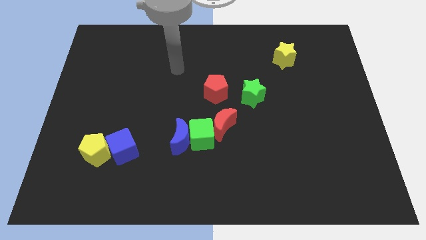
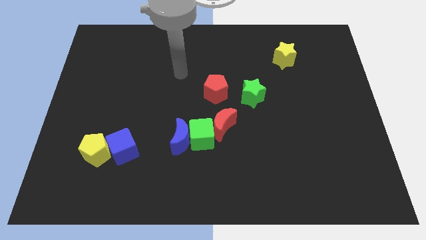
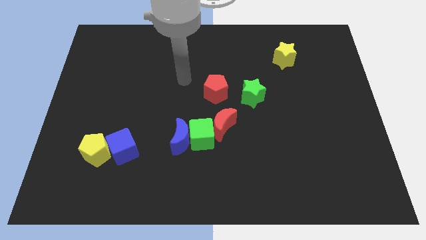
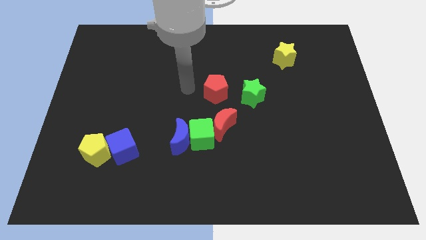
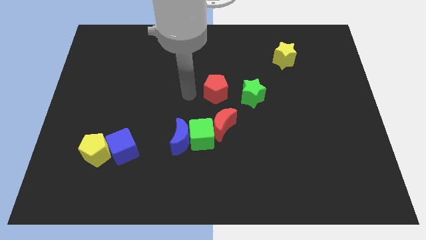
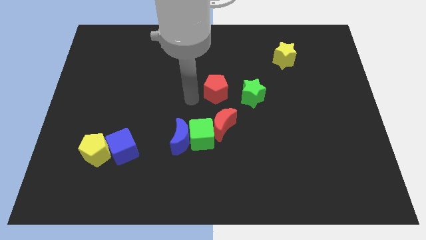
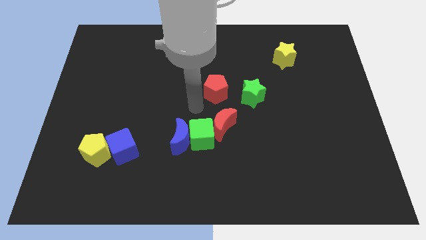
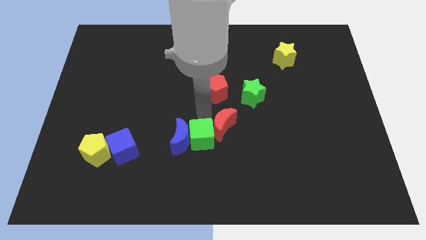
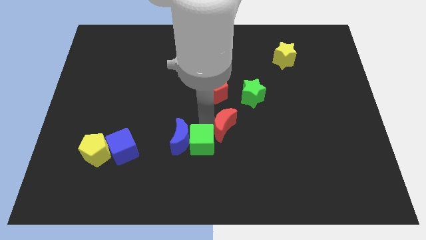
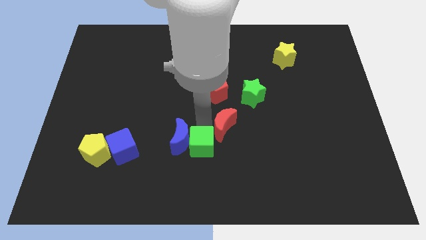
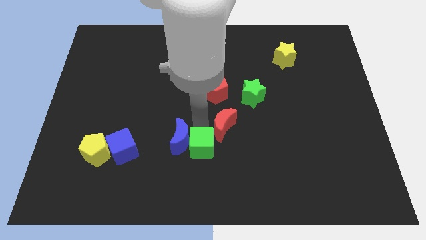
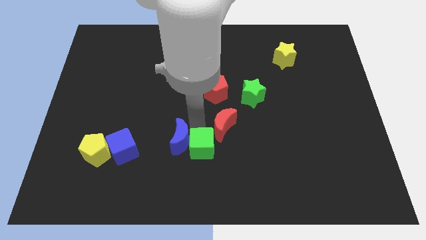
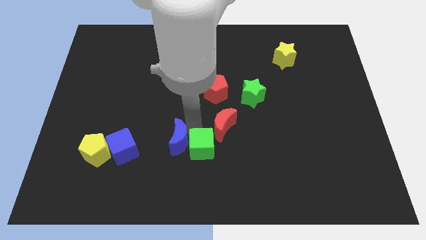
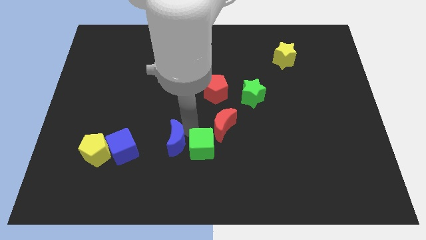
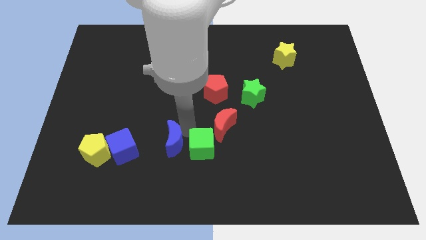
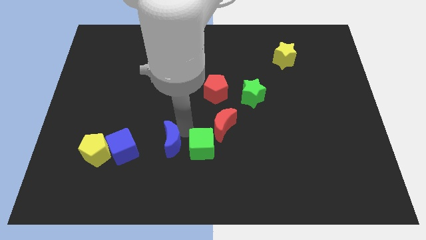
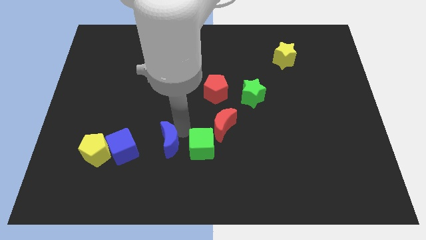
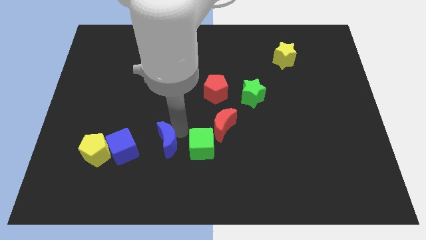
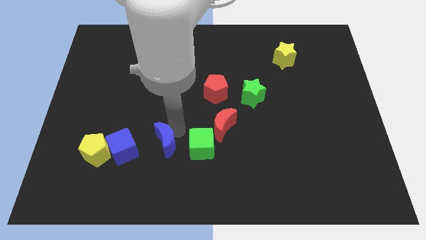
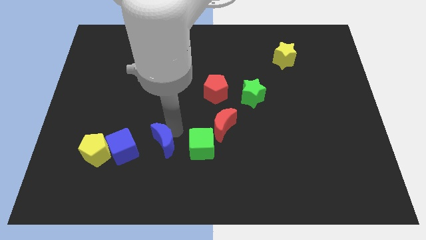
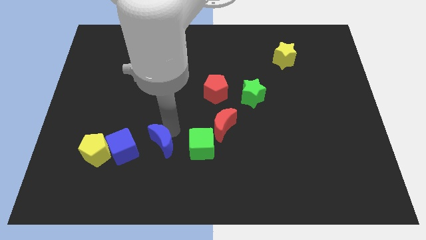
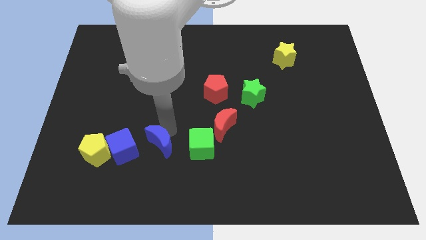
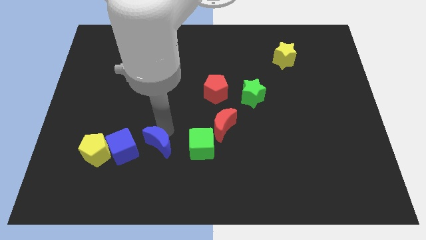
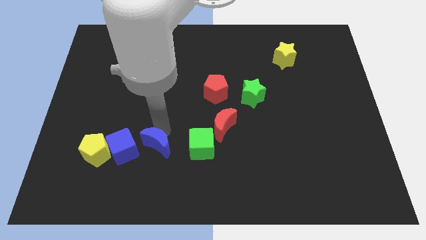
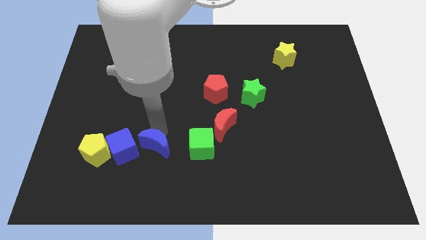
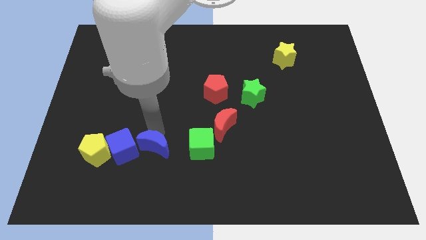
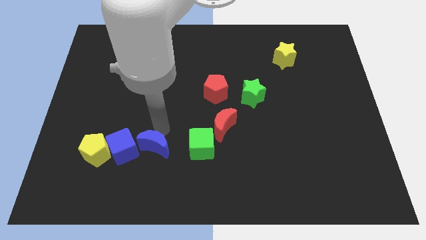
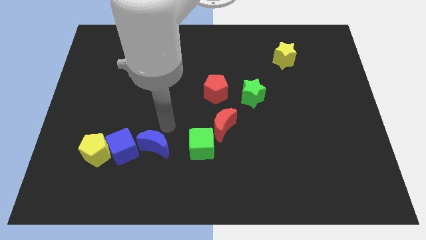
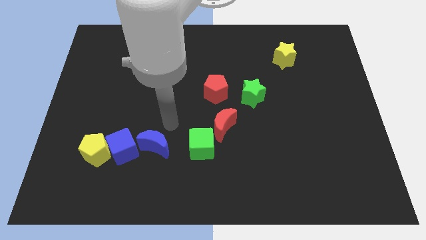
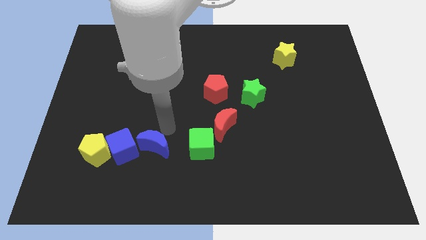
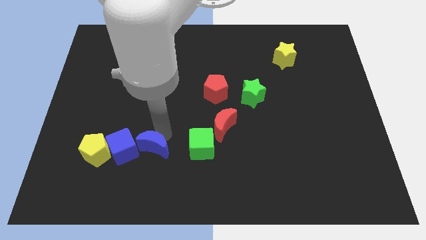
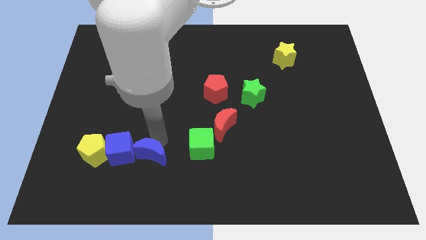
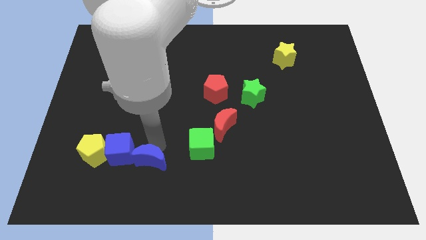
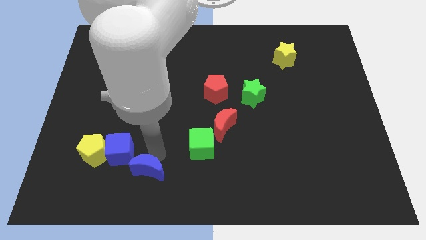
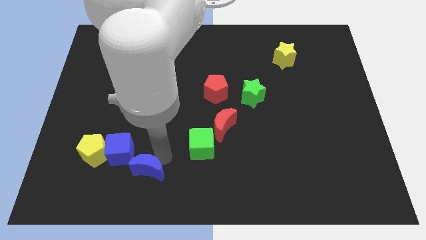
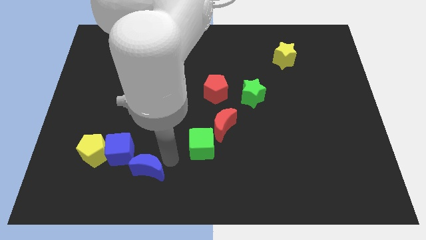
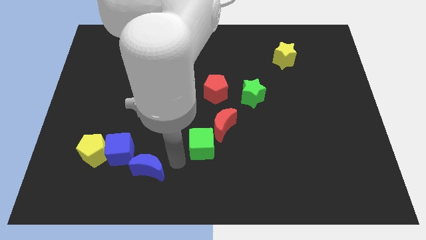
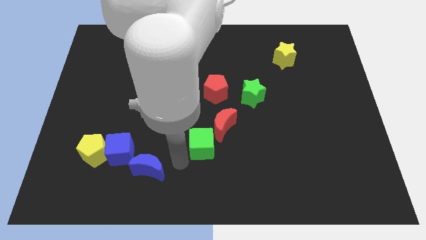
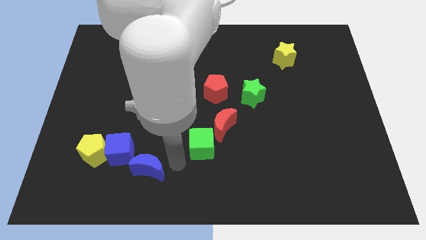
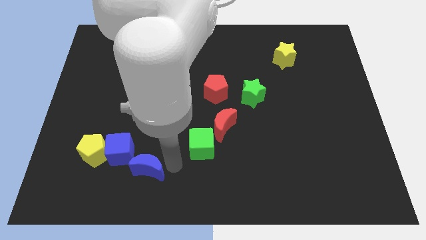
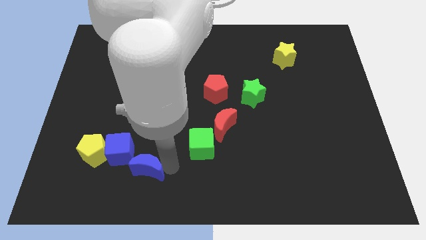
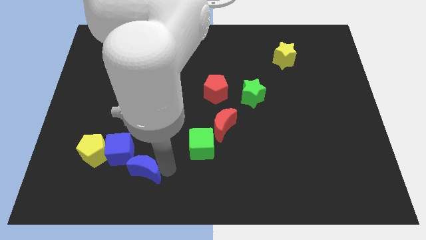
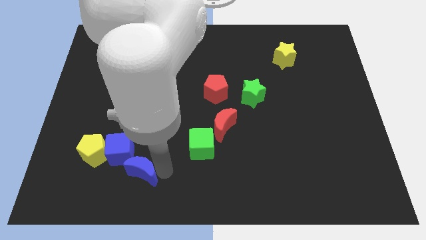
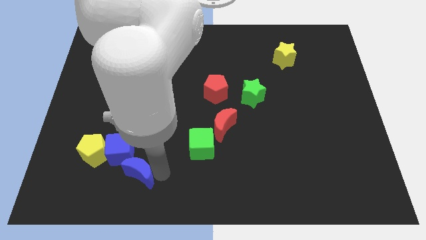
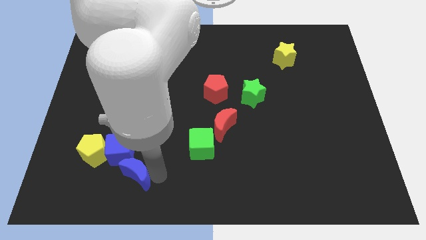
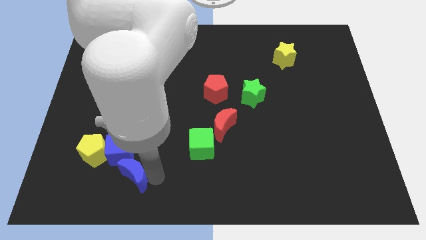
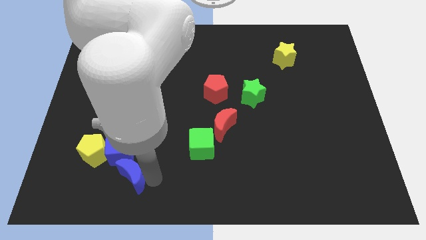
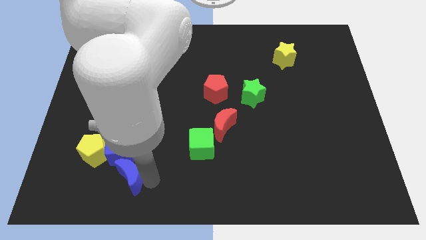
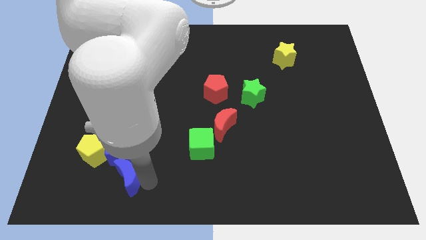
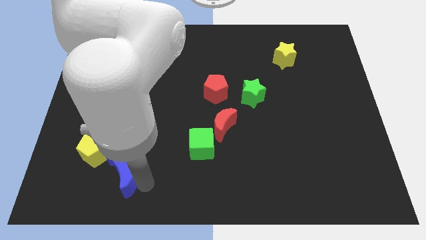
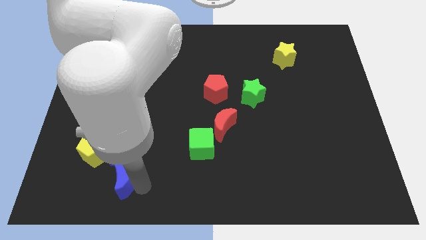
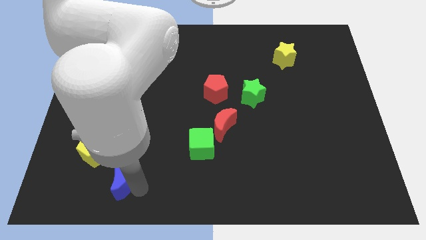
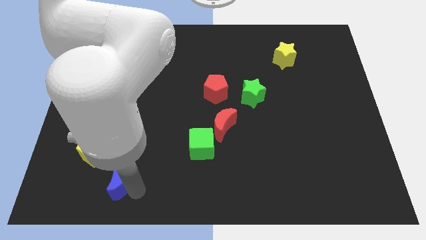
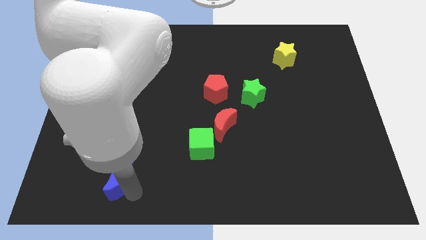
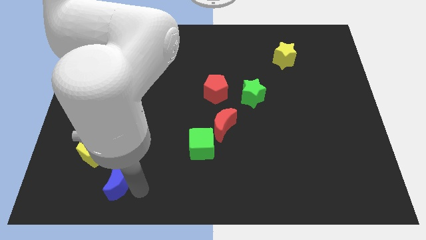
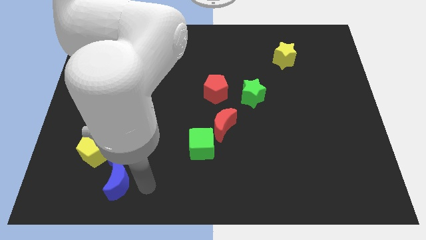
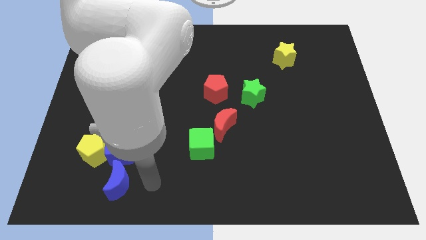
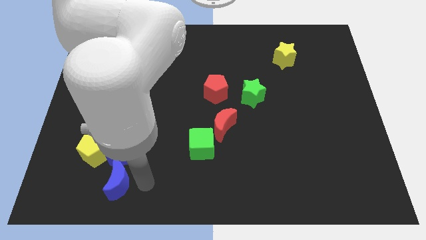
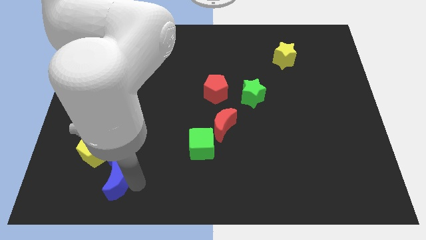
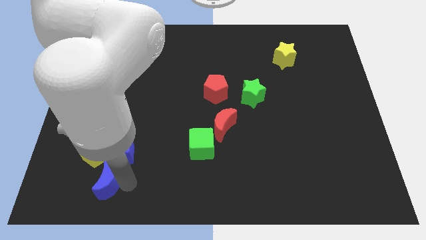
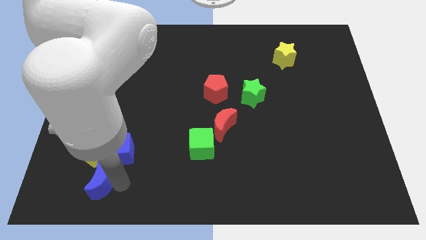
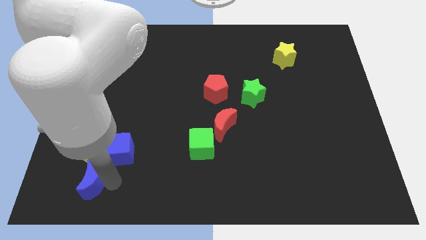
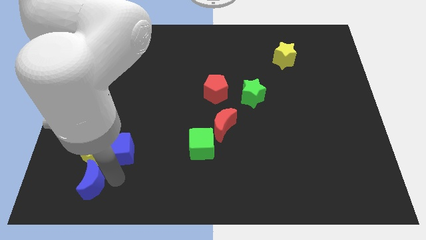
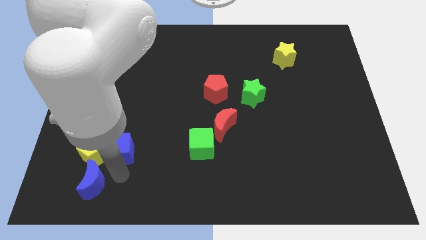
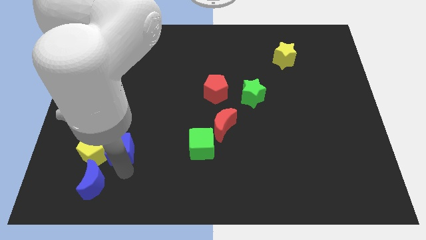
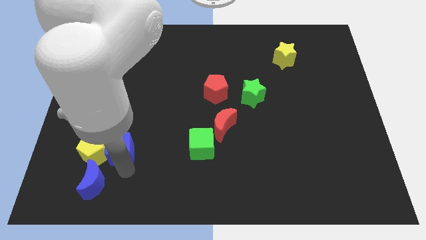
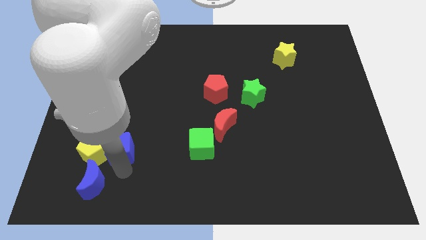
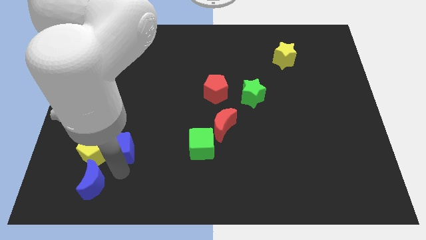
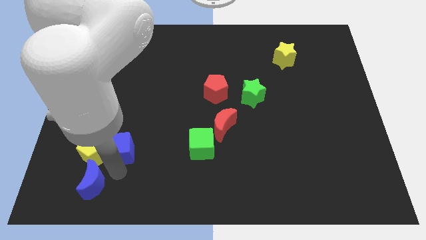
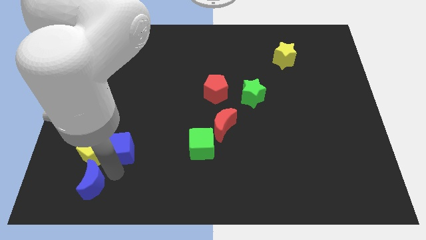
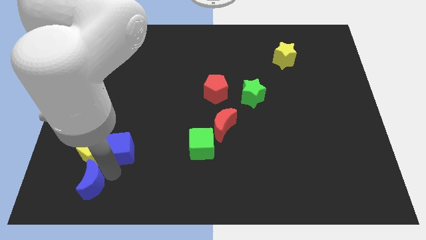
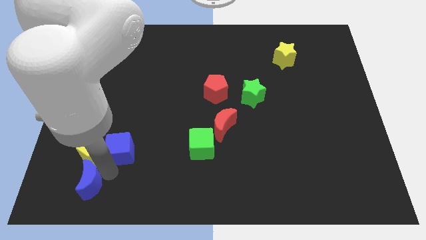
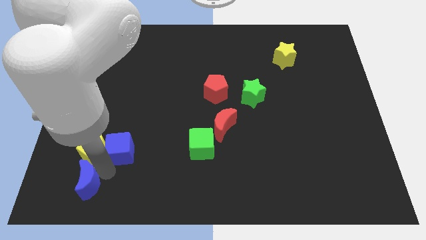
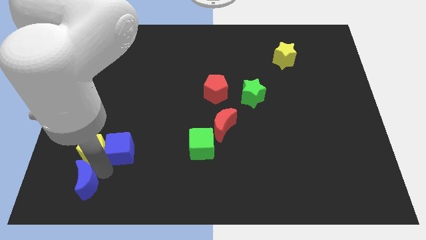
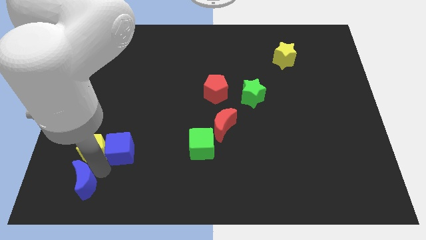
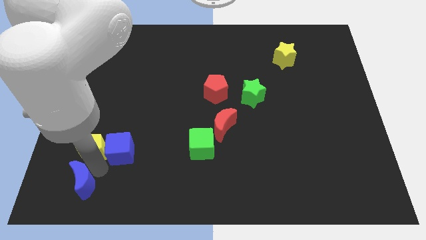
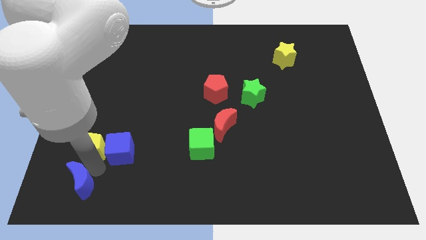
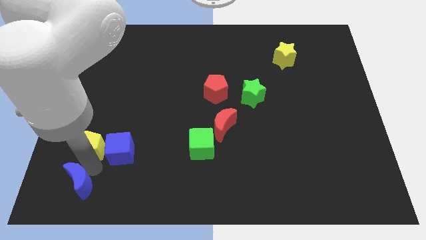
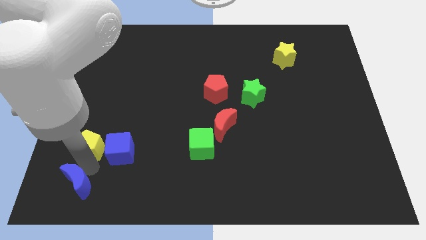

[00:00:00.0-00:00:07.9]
push the blue moon to the lower left corner
